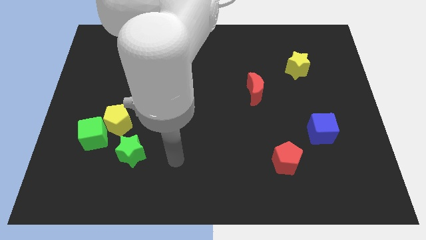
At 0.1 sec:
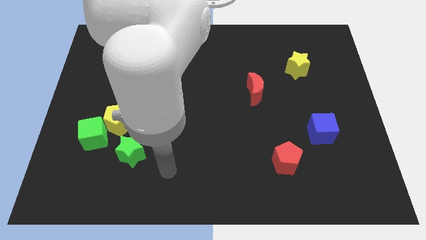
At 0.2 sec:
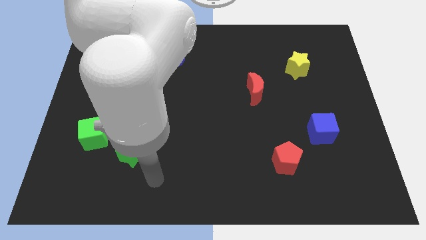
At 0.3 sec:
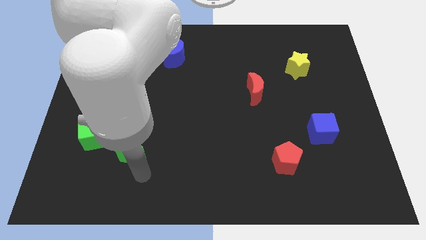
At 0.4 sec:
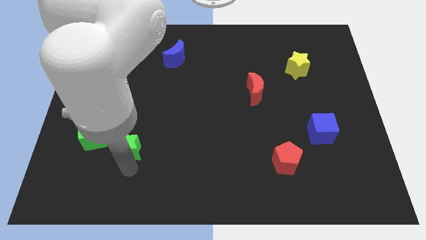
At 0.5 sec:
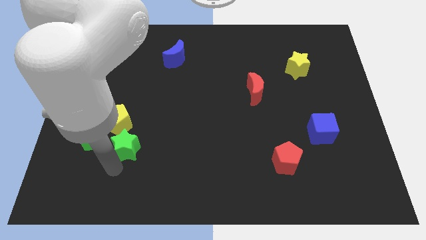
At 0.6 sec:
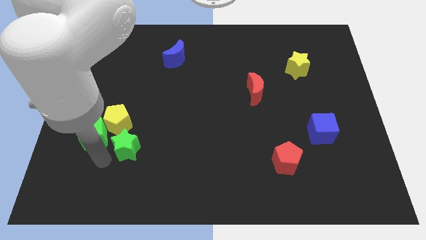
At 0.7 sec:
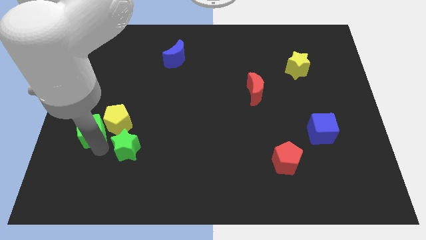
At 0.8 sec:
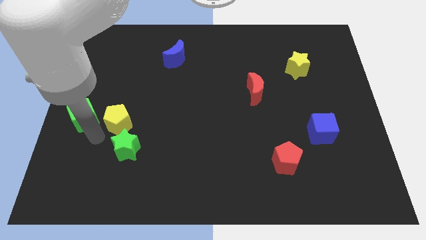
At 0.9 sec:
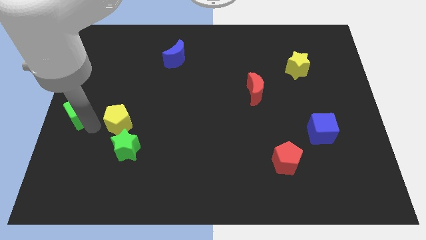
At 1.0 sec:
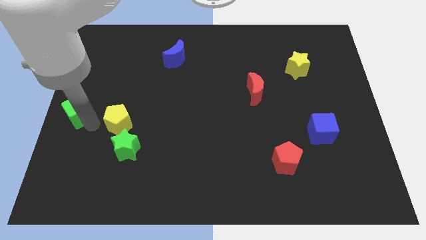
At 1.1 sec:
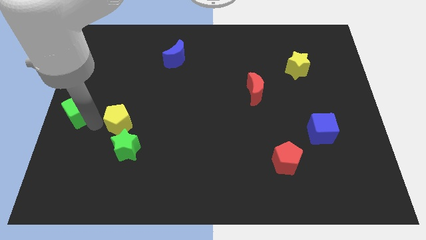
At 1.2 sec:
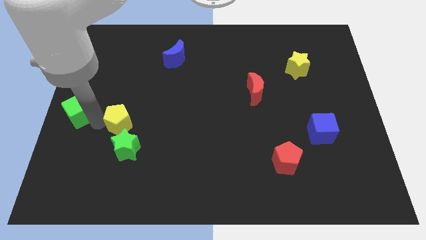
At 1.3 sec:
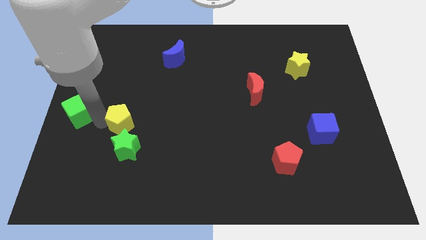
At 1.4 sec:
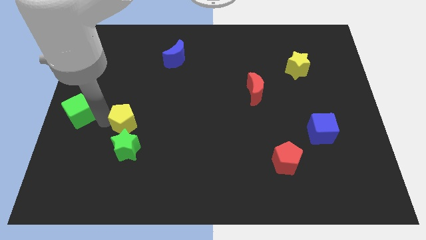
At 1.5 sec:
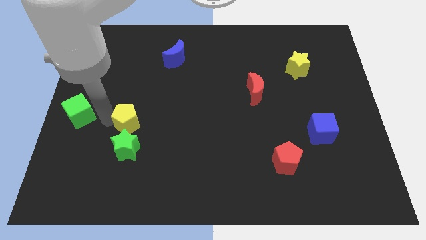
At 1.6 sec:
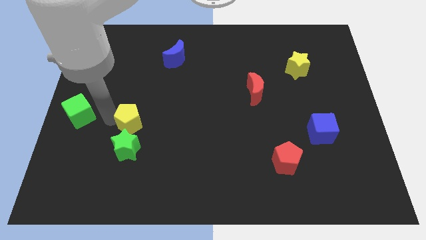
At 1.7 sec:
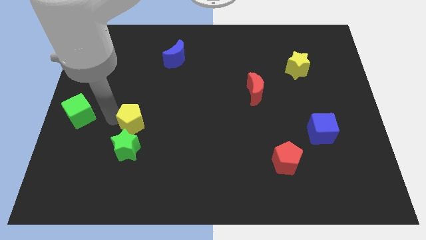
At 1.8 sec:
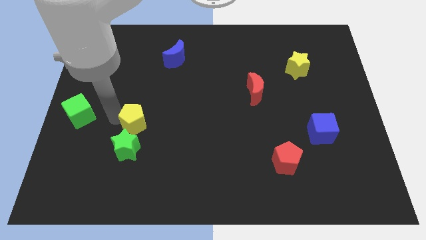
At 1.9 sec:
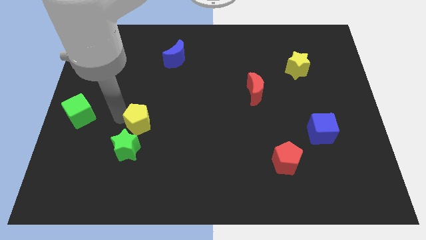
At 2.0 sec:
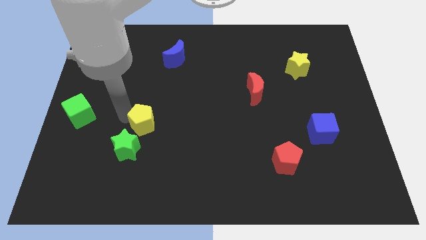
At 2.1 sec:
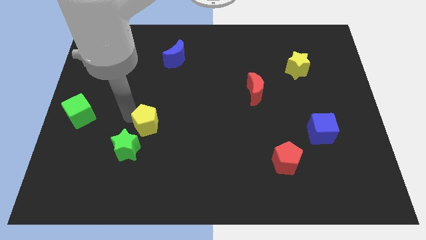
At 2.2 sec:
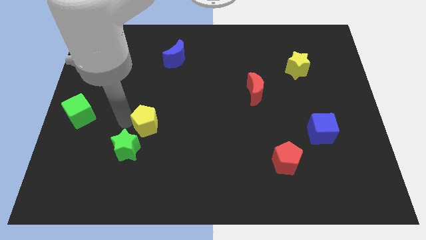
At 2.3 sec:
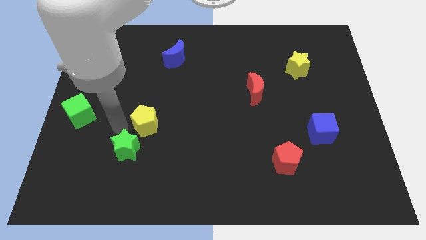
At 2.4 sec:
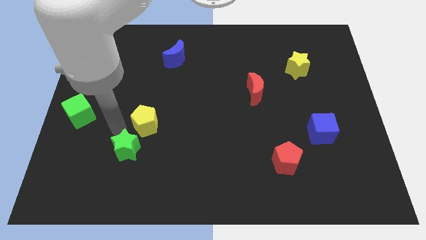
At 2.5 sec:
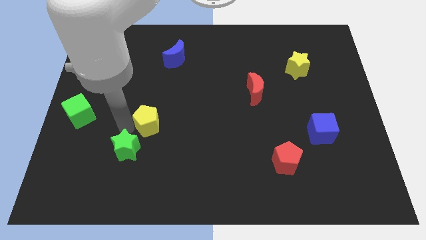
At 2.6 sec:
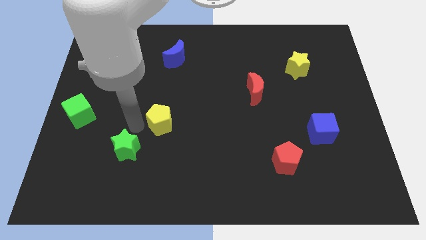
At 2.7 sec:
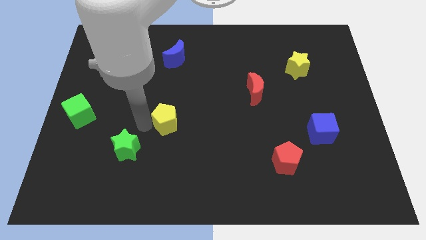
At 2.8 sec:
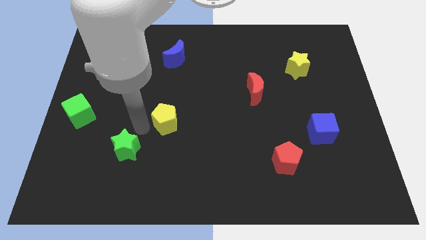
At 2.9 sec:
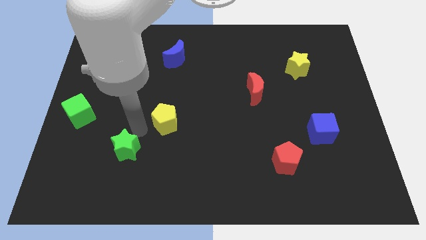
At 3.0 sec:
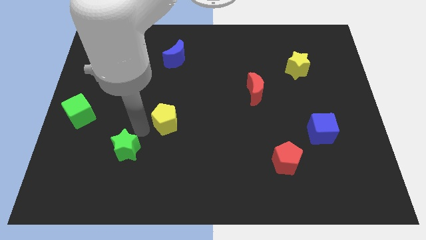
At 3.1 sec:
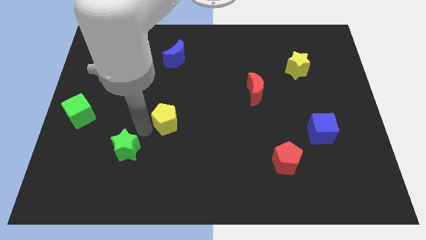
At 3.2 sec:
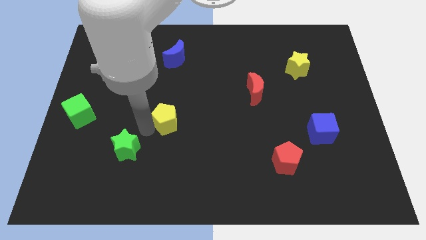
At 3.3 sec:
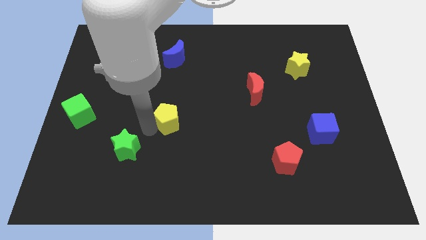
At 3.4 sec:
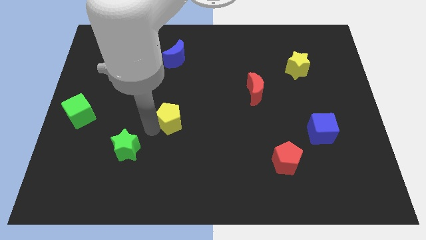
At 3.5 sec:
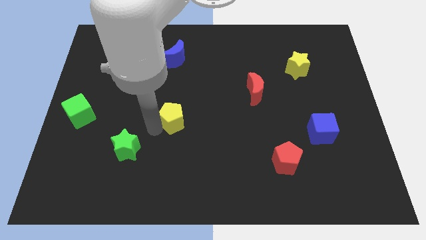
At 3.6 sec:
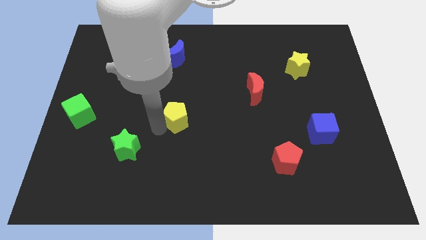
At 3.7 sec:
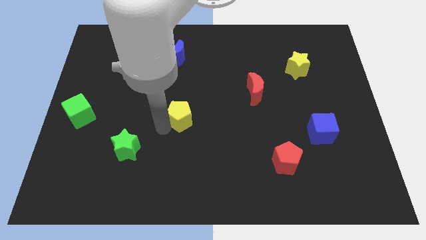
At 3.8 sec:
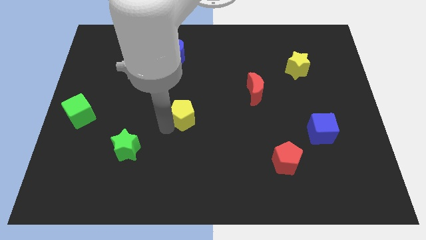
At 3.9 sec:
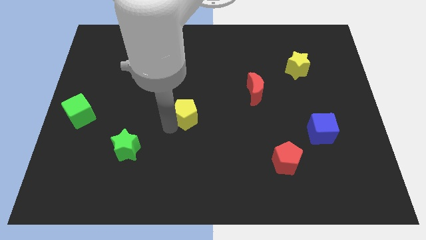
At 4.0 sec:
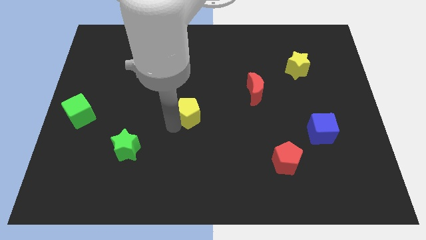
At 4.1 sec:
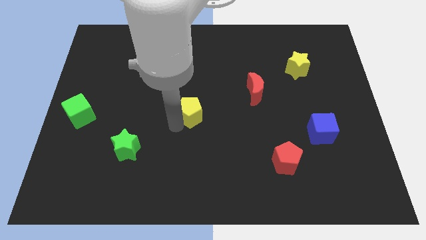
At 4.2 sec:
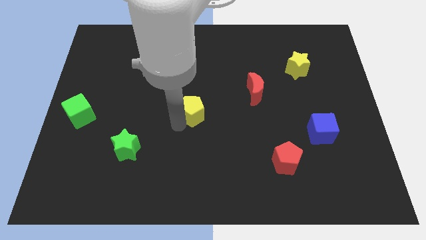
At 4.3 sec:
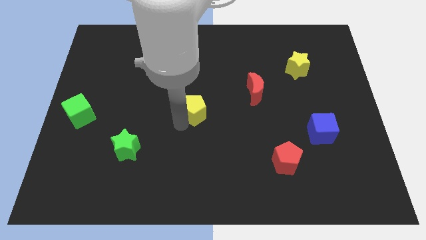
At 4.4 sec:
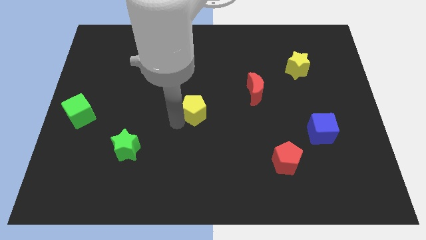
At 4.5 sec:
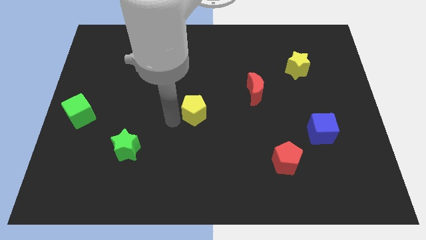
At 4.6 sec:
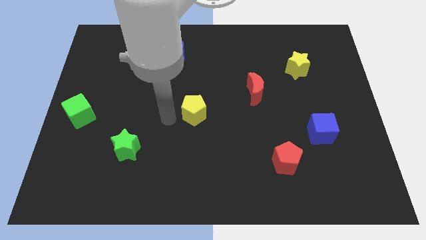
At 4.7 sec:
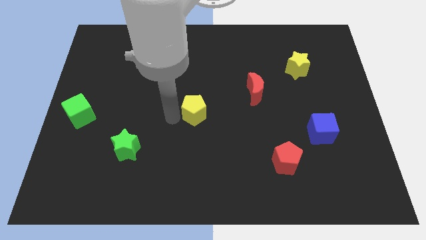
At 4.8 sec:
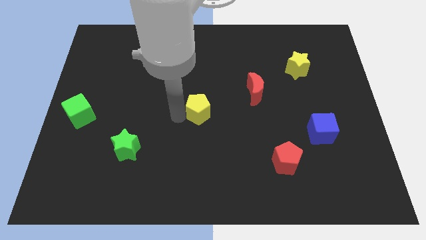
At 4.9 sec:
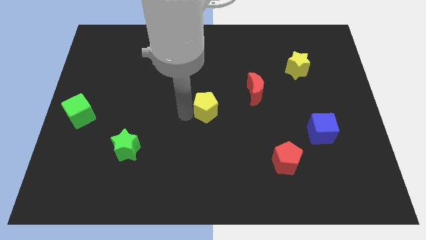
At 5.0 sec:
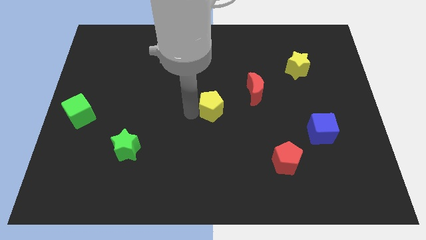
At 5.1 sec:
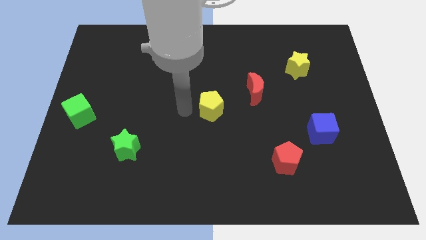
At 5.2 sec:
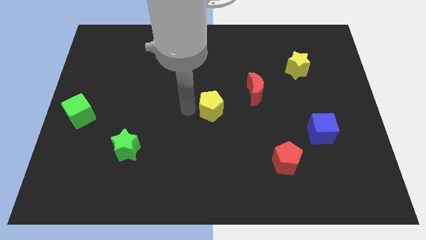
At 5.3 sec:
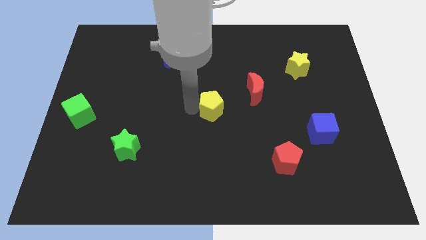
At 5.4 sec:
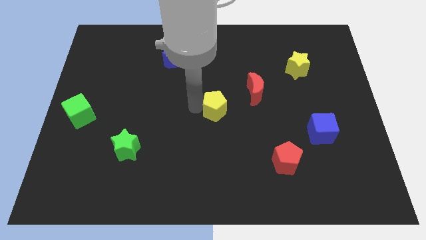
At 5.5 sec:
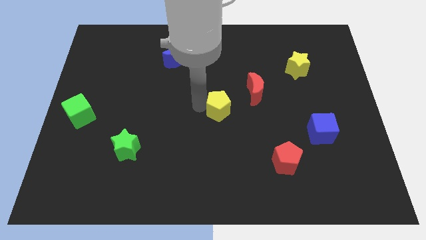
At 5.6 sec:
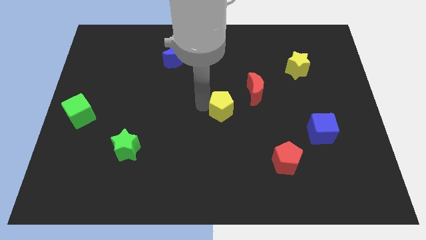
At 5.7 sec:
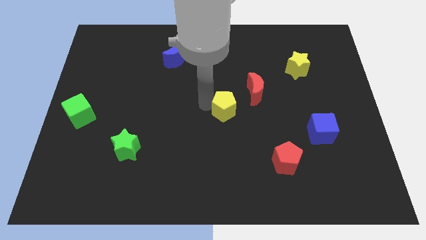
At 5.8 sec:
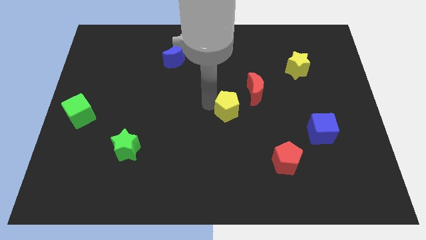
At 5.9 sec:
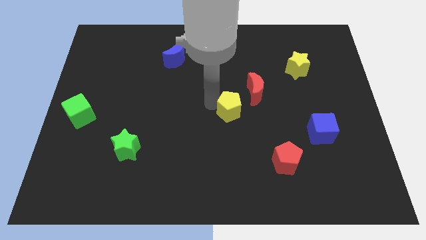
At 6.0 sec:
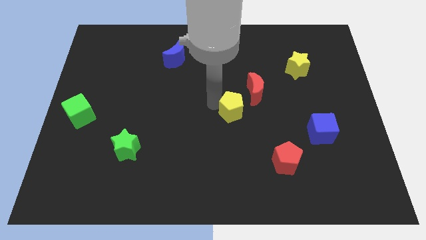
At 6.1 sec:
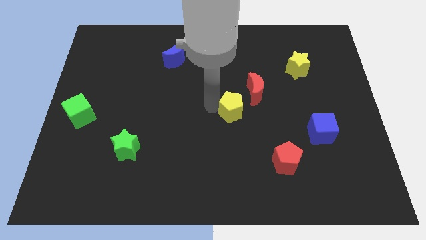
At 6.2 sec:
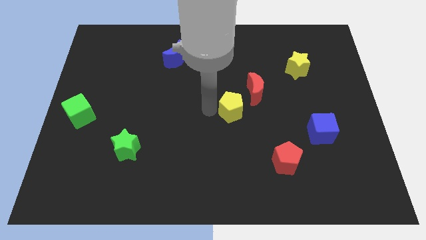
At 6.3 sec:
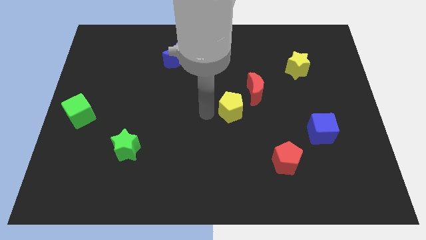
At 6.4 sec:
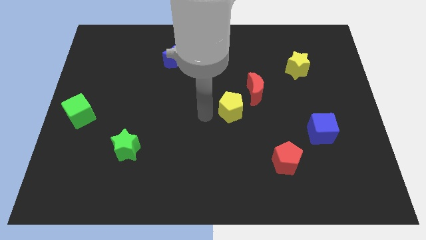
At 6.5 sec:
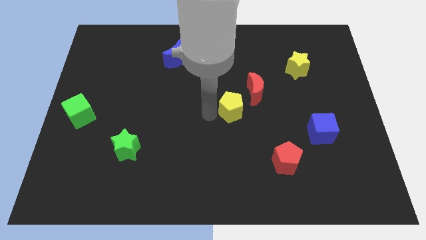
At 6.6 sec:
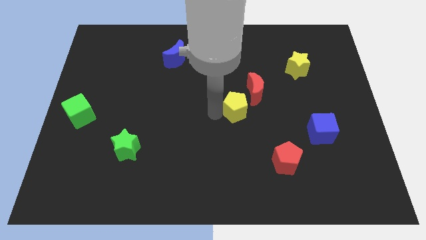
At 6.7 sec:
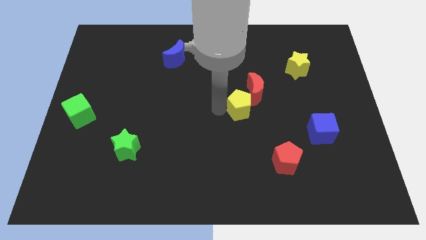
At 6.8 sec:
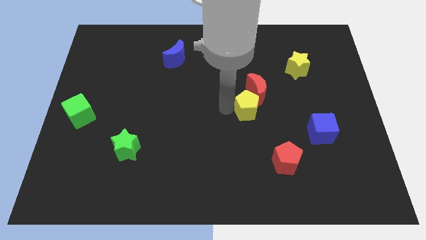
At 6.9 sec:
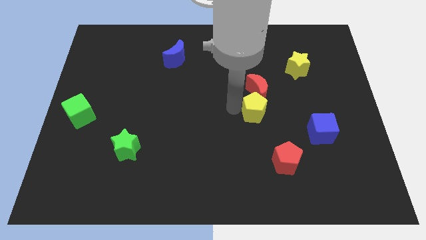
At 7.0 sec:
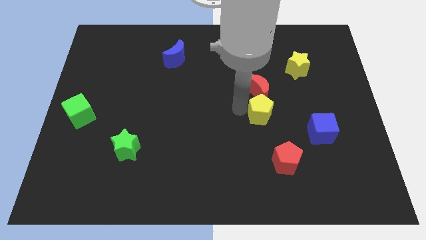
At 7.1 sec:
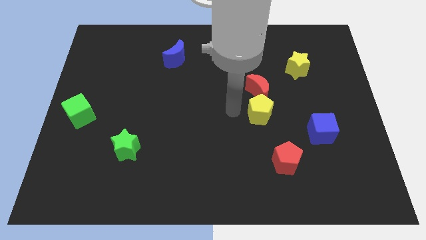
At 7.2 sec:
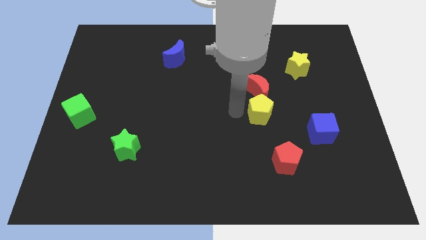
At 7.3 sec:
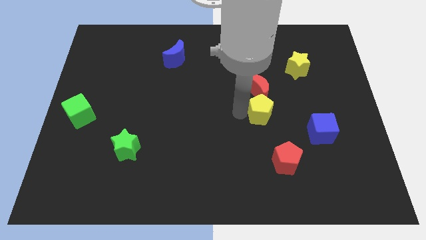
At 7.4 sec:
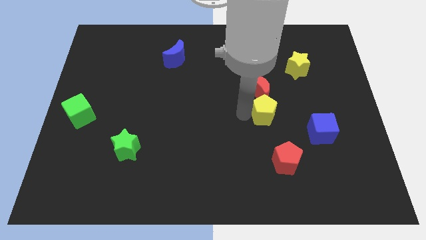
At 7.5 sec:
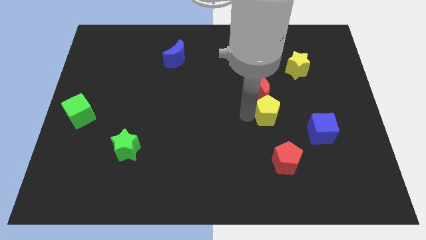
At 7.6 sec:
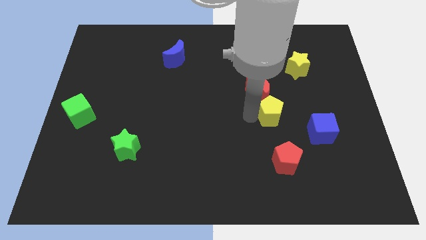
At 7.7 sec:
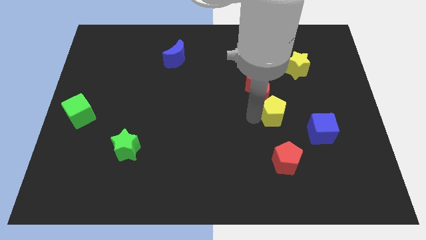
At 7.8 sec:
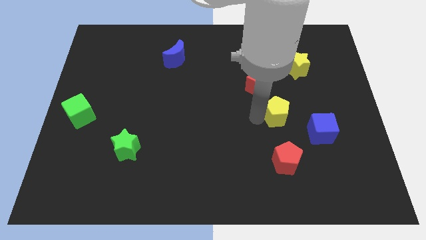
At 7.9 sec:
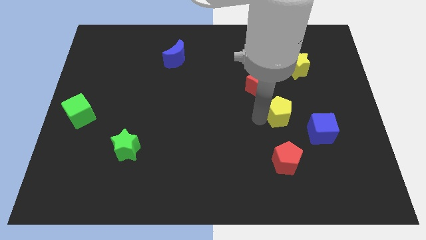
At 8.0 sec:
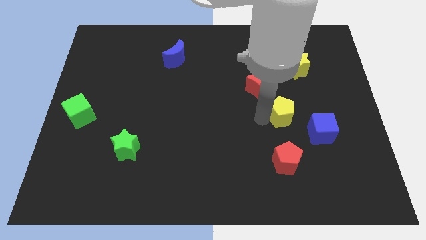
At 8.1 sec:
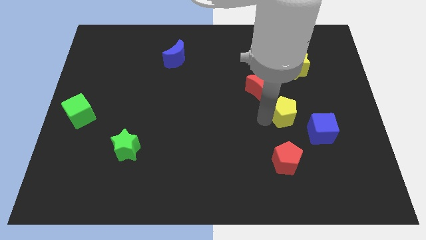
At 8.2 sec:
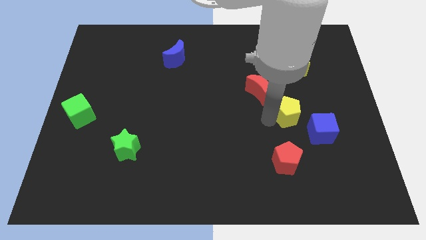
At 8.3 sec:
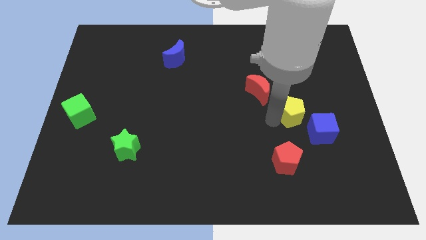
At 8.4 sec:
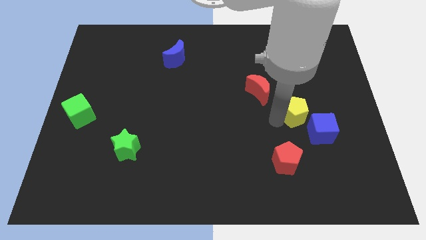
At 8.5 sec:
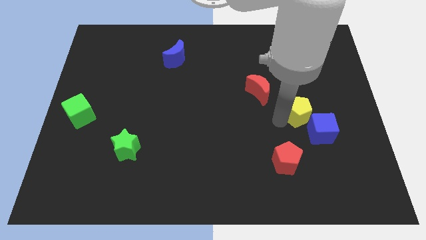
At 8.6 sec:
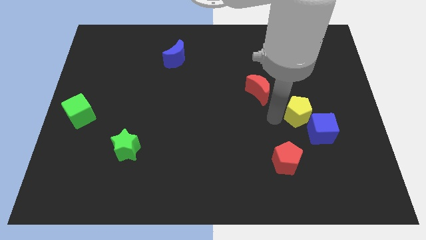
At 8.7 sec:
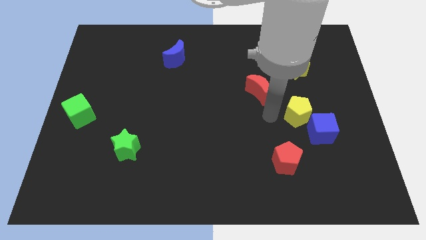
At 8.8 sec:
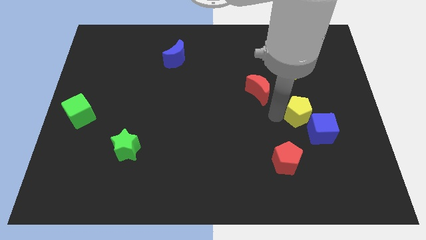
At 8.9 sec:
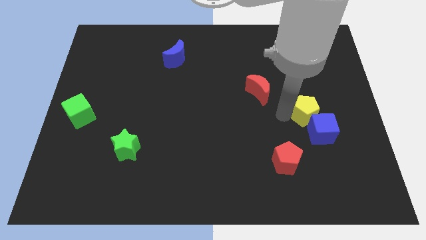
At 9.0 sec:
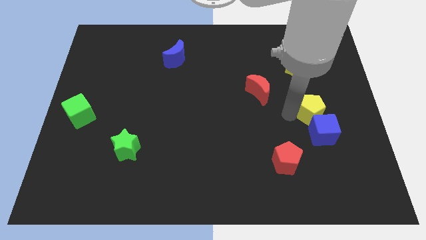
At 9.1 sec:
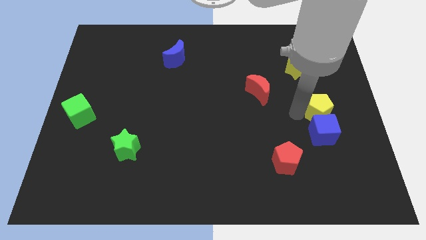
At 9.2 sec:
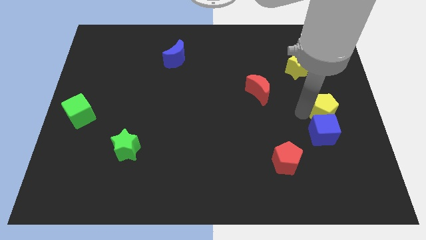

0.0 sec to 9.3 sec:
move the yellow pentagon to the right side
